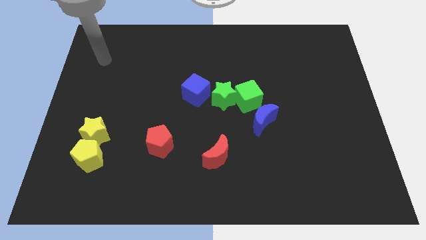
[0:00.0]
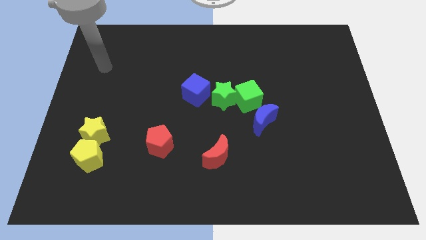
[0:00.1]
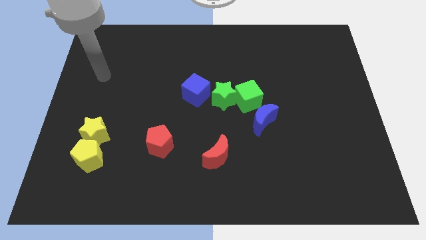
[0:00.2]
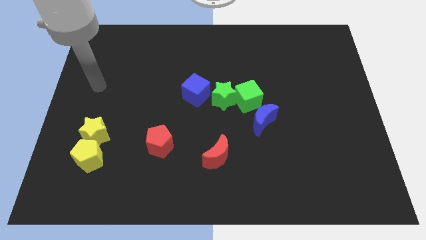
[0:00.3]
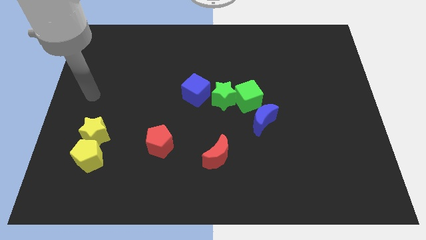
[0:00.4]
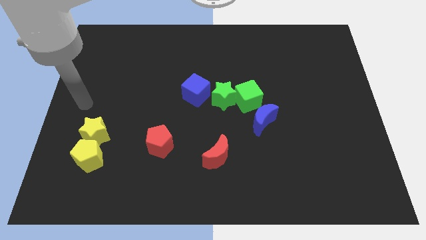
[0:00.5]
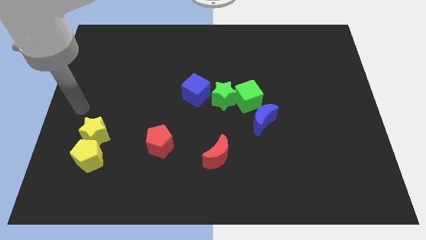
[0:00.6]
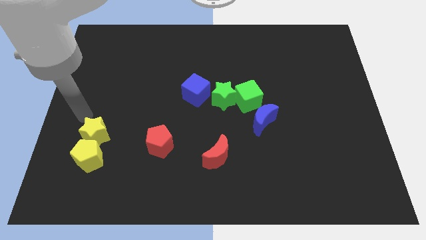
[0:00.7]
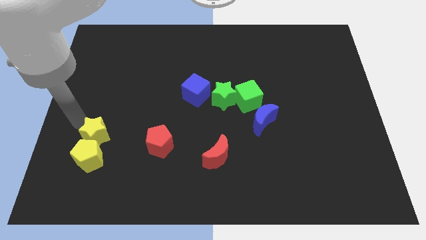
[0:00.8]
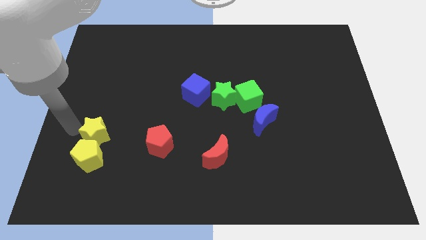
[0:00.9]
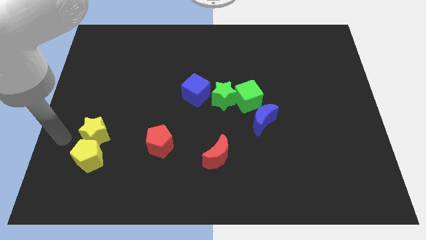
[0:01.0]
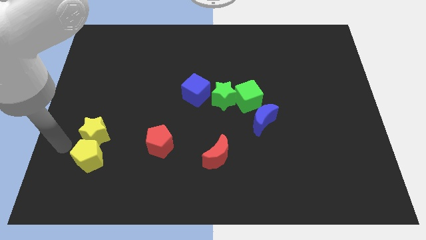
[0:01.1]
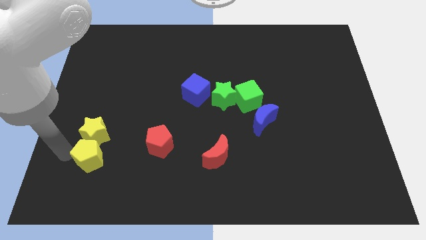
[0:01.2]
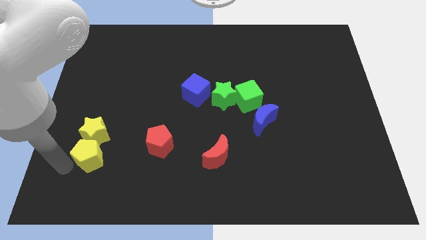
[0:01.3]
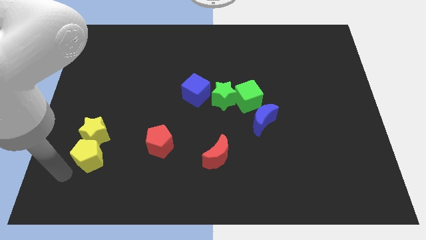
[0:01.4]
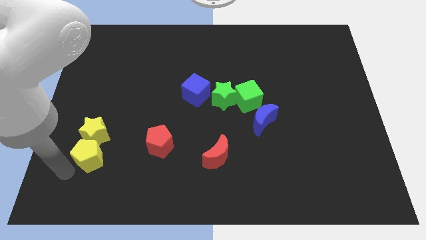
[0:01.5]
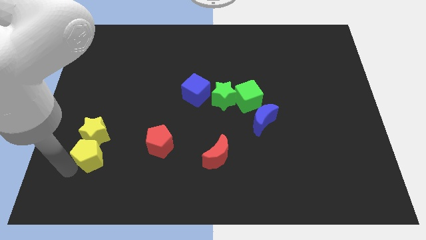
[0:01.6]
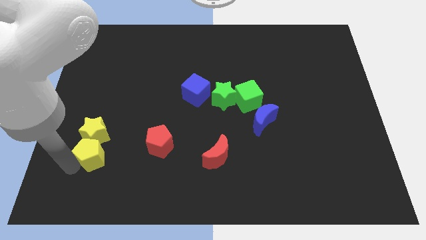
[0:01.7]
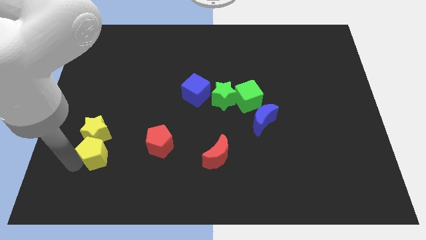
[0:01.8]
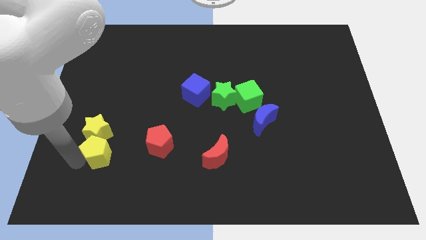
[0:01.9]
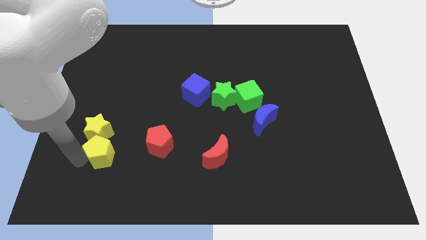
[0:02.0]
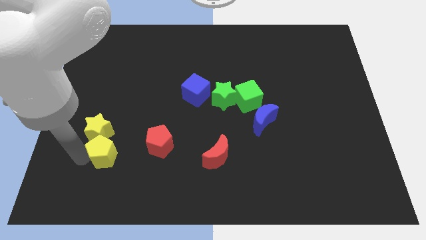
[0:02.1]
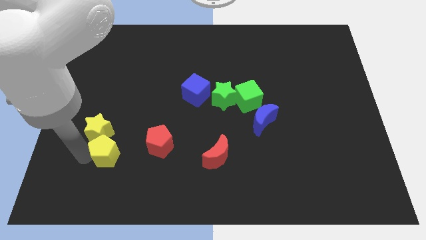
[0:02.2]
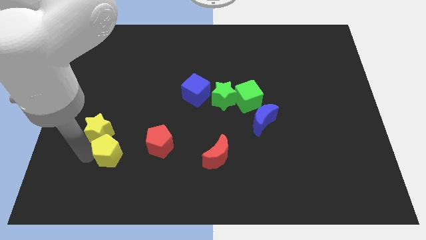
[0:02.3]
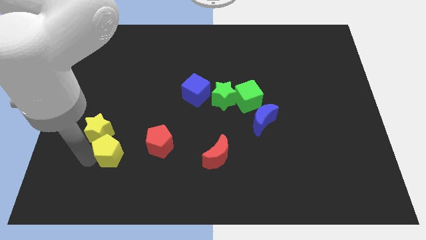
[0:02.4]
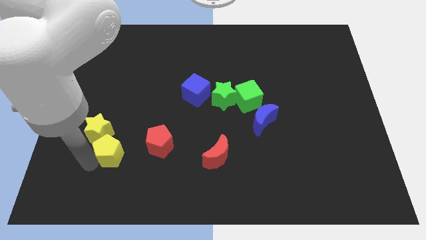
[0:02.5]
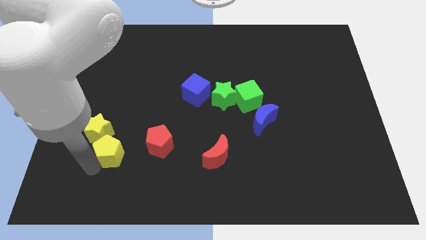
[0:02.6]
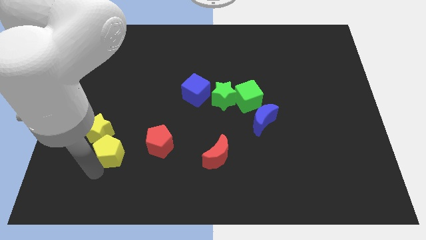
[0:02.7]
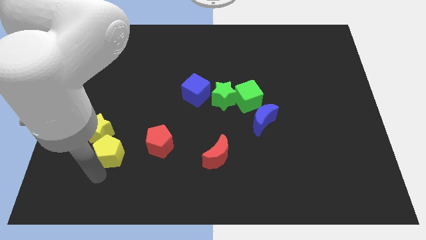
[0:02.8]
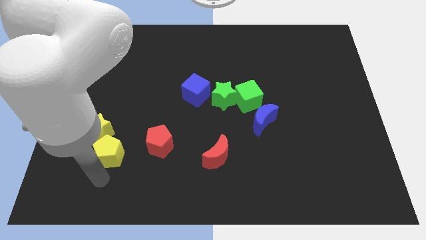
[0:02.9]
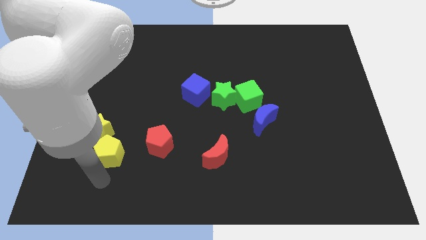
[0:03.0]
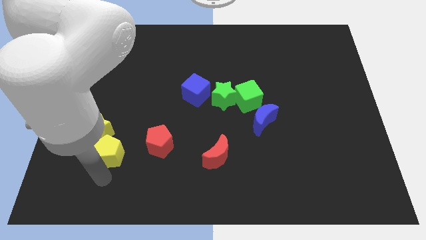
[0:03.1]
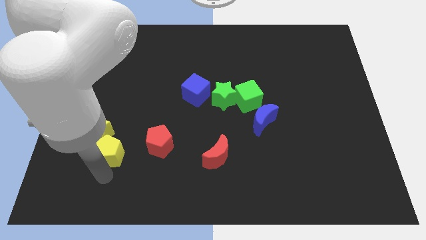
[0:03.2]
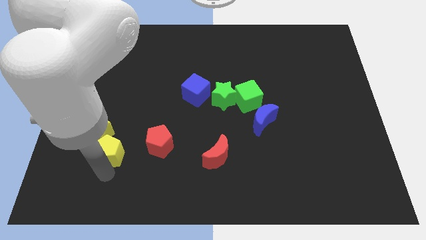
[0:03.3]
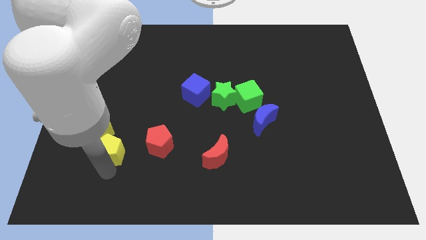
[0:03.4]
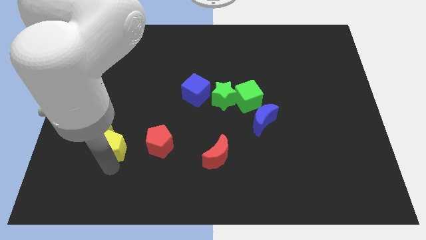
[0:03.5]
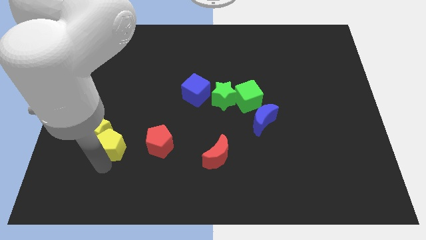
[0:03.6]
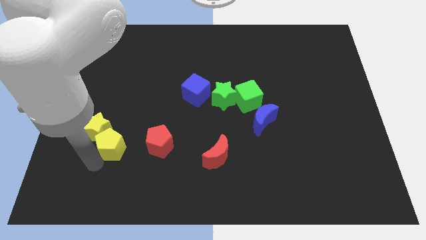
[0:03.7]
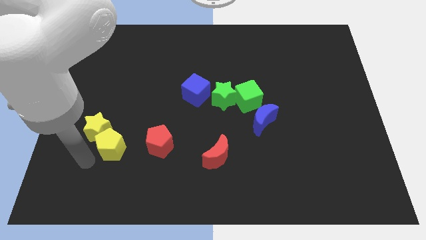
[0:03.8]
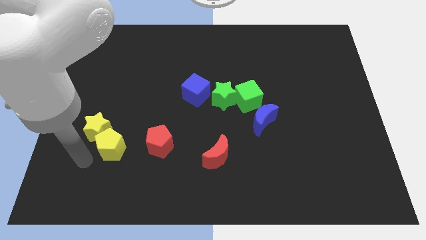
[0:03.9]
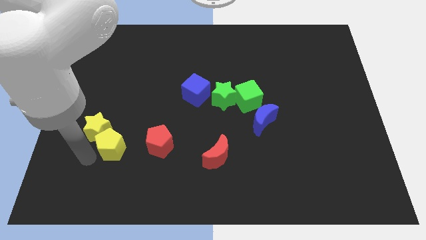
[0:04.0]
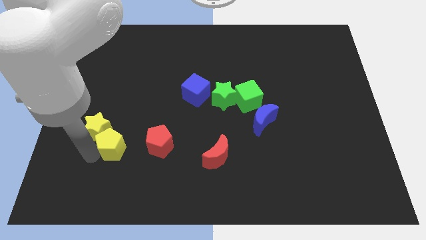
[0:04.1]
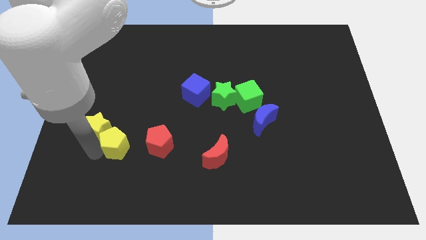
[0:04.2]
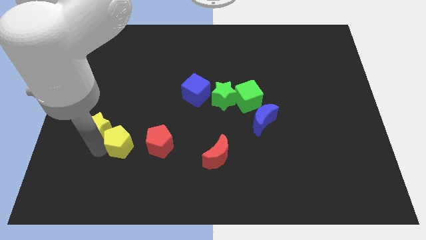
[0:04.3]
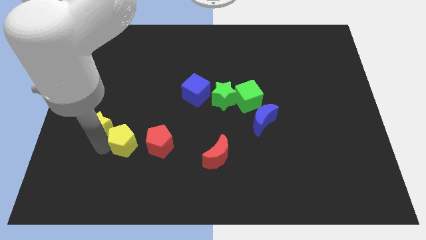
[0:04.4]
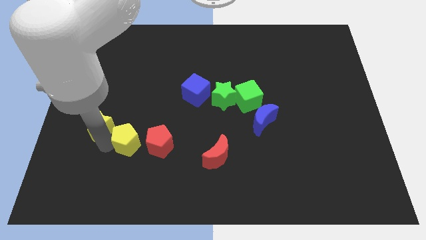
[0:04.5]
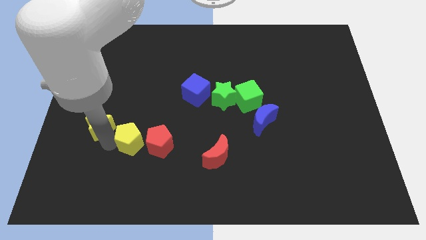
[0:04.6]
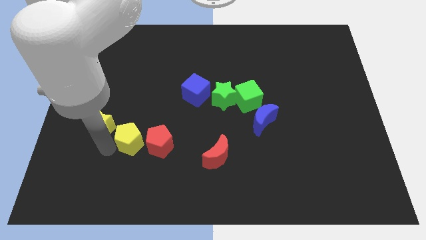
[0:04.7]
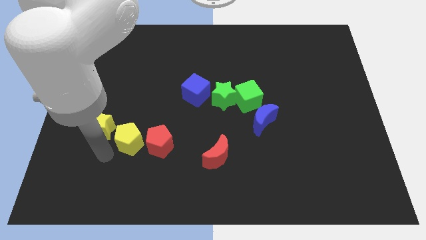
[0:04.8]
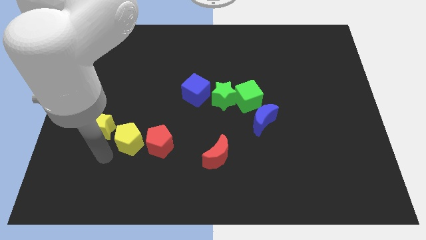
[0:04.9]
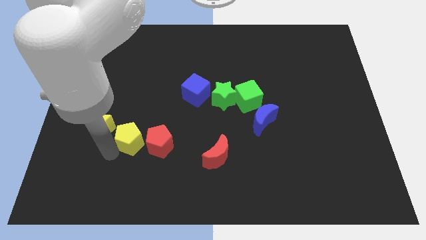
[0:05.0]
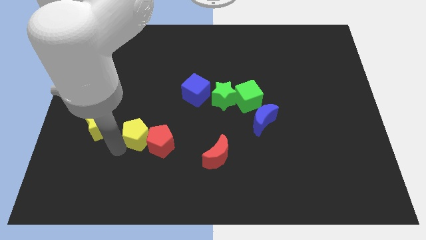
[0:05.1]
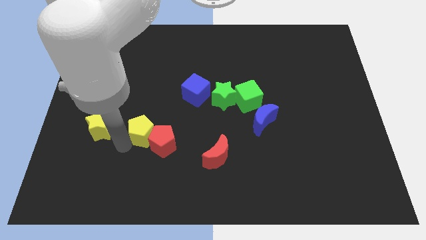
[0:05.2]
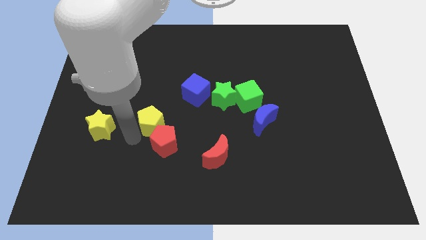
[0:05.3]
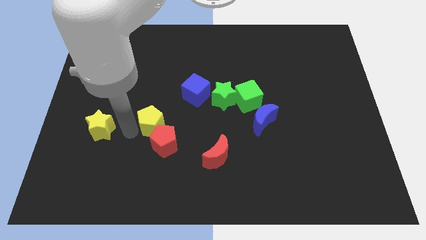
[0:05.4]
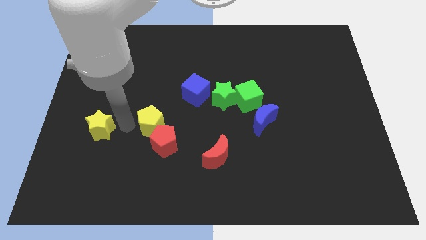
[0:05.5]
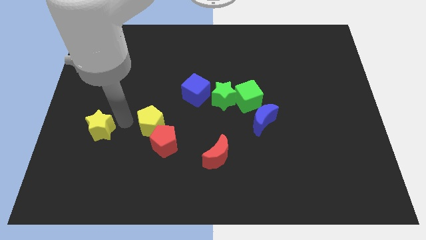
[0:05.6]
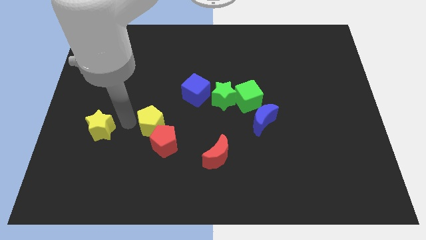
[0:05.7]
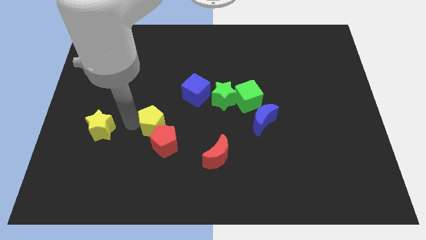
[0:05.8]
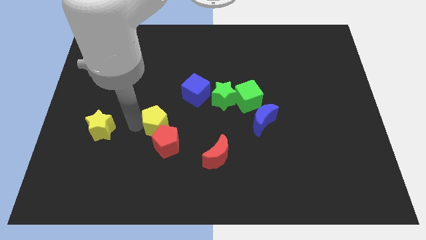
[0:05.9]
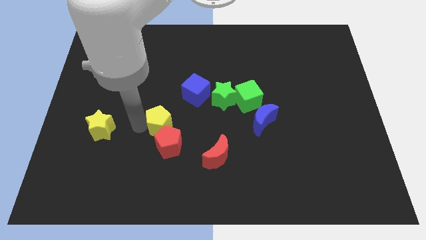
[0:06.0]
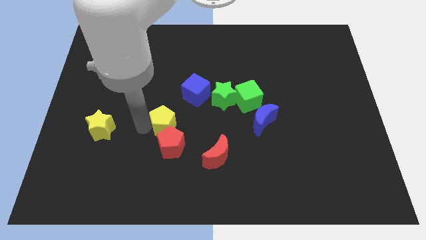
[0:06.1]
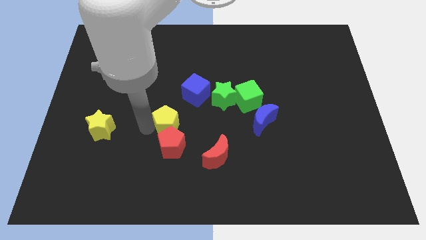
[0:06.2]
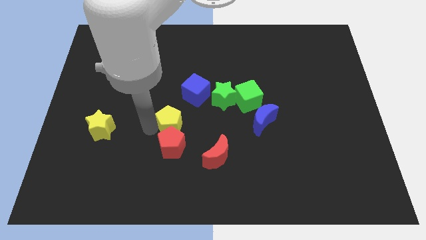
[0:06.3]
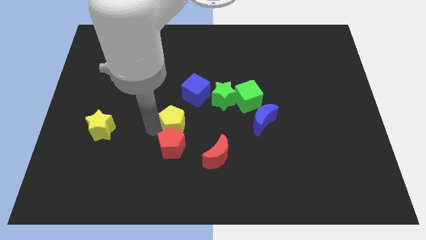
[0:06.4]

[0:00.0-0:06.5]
push the yellow pentagon to the bottom side of the blue cube

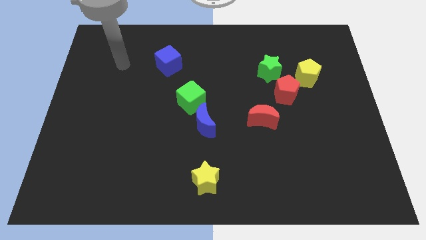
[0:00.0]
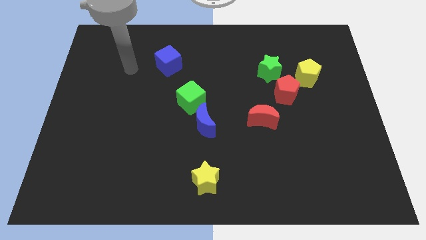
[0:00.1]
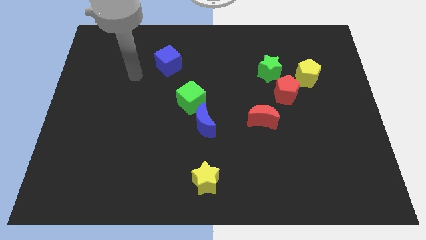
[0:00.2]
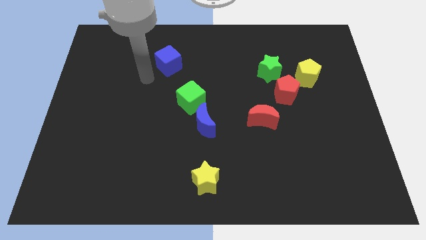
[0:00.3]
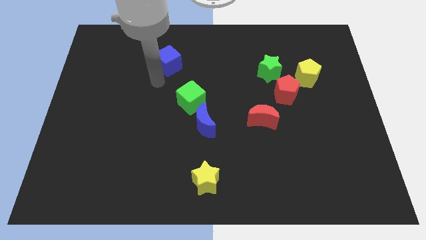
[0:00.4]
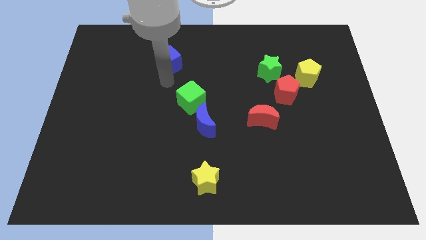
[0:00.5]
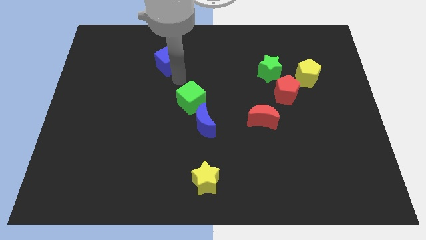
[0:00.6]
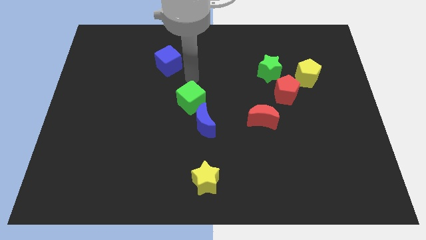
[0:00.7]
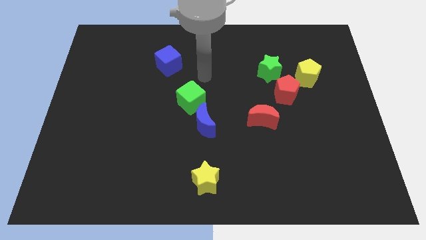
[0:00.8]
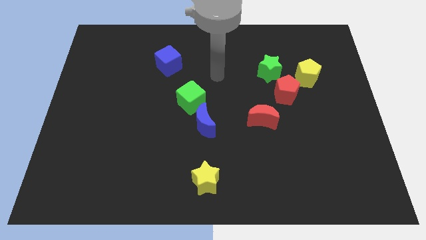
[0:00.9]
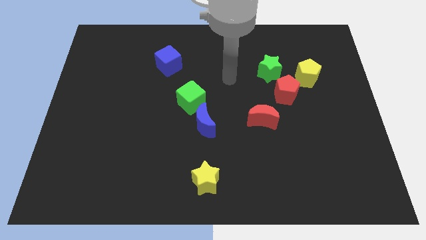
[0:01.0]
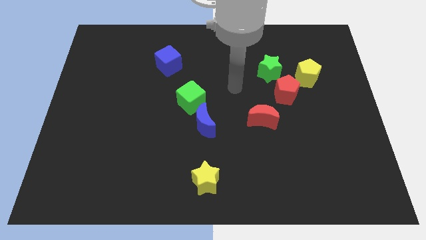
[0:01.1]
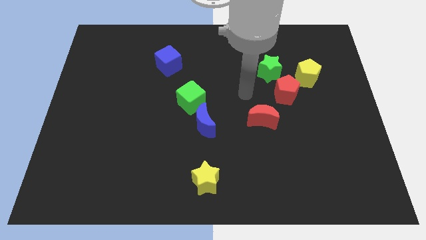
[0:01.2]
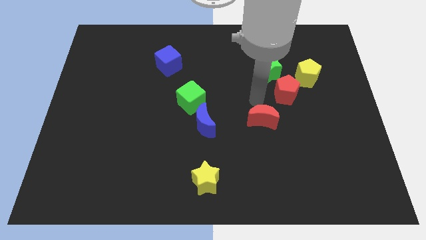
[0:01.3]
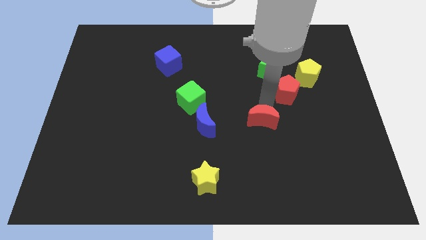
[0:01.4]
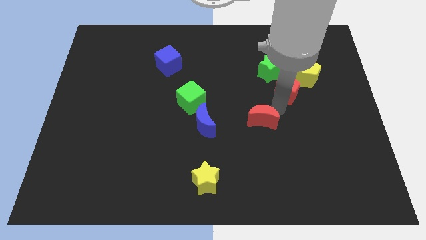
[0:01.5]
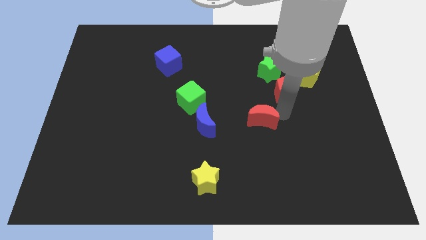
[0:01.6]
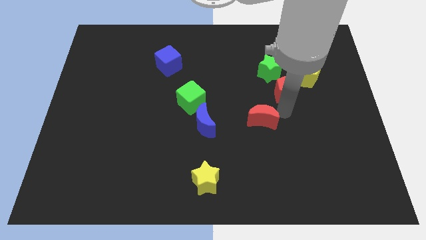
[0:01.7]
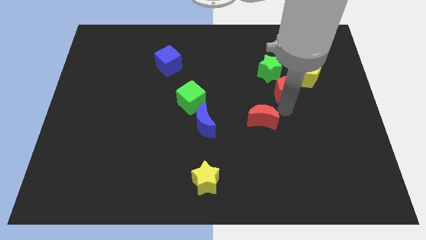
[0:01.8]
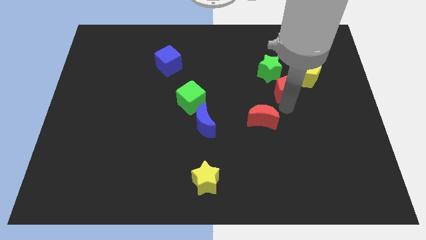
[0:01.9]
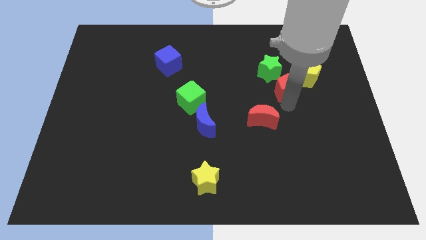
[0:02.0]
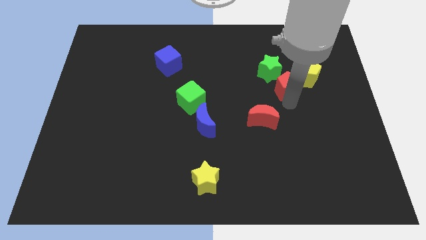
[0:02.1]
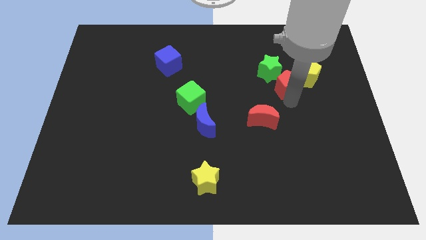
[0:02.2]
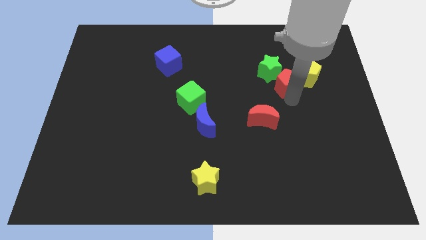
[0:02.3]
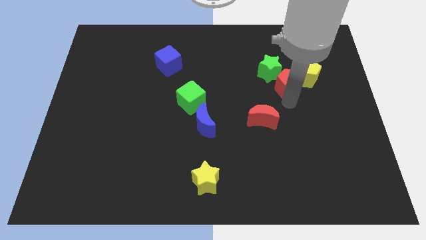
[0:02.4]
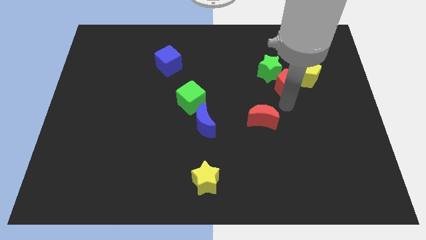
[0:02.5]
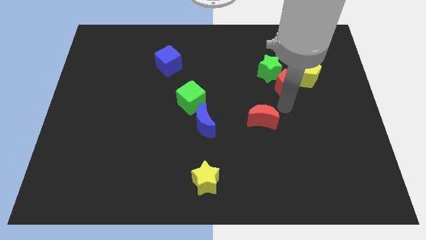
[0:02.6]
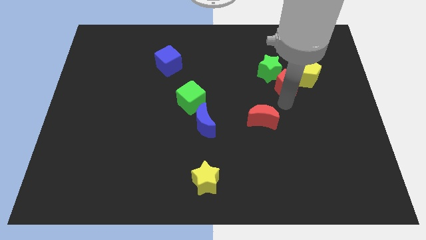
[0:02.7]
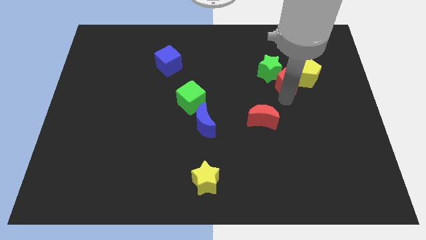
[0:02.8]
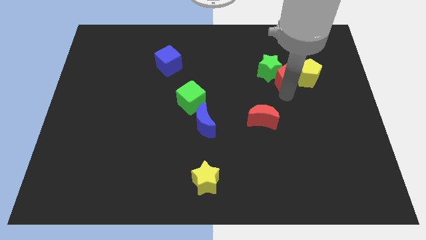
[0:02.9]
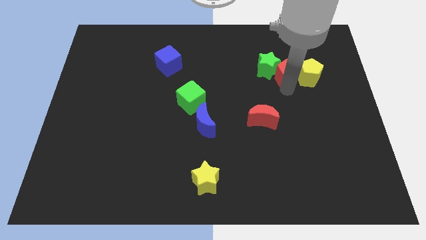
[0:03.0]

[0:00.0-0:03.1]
slide the red pentagon to the top left side of the yellow pentagon
